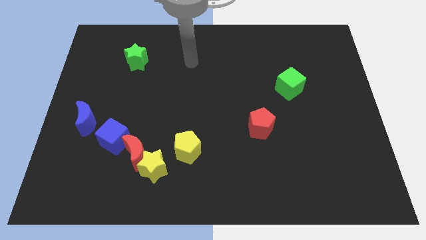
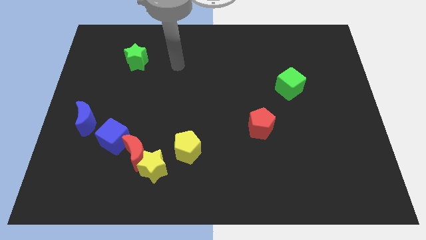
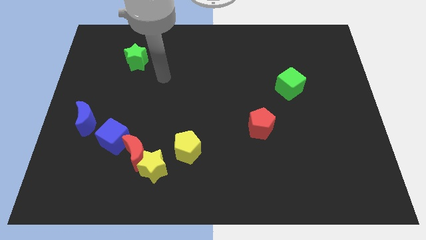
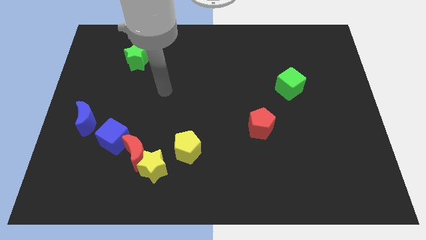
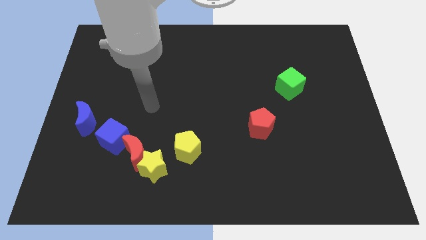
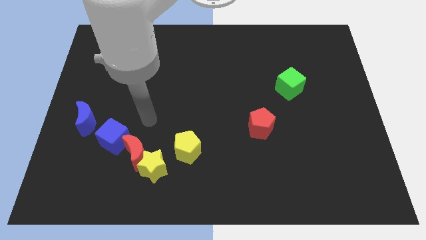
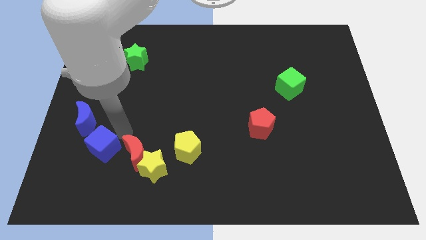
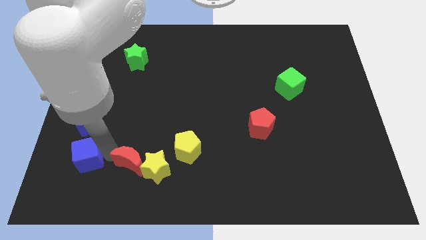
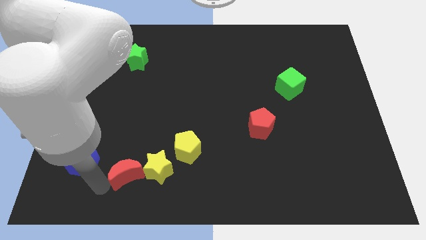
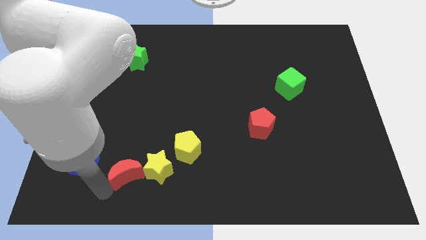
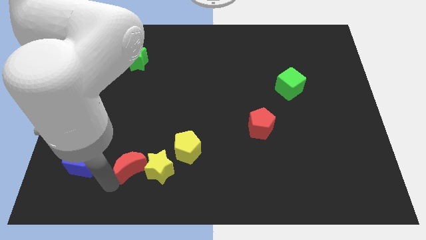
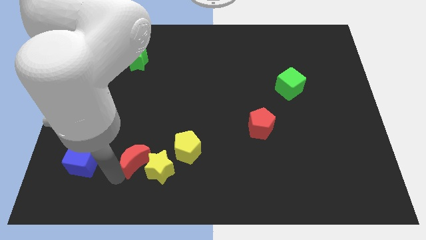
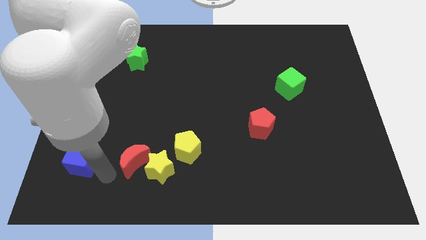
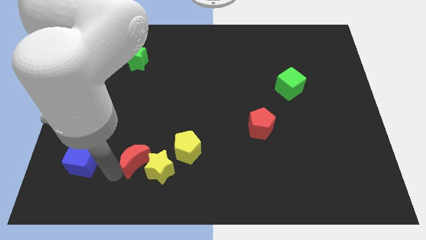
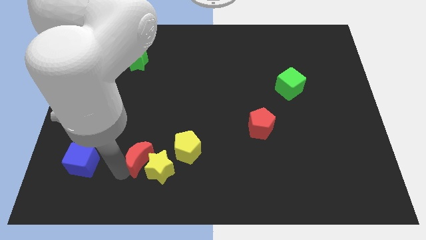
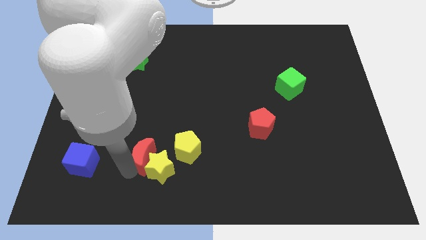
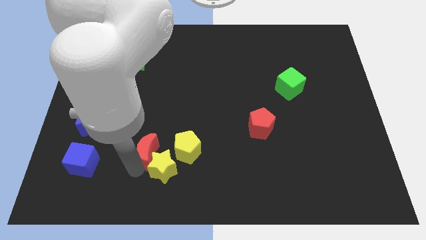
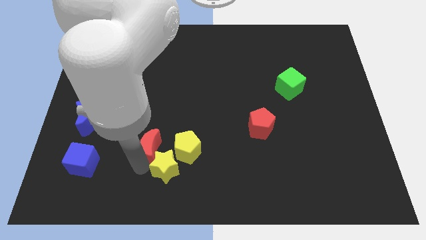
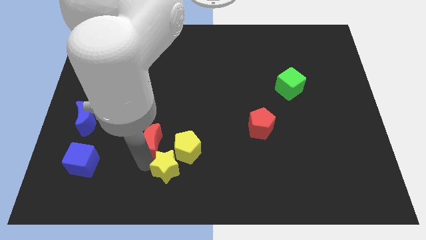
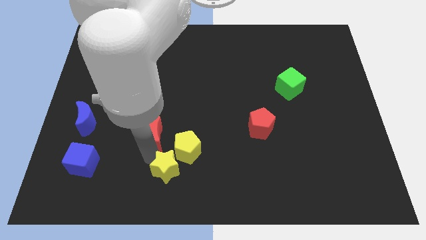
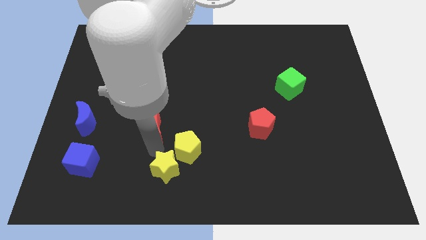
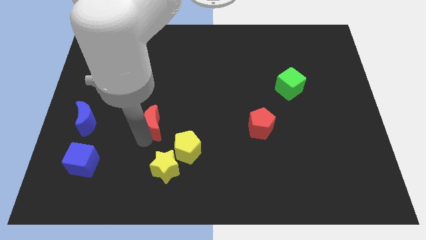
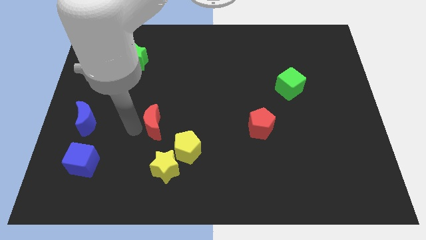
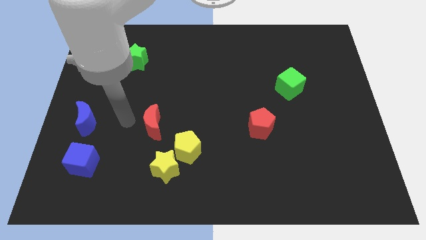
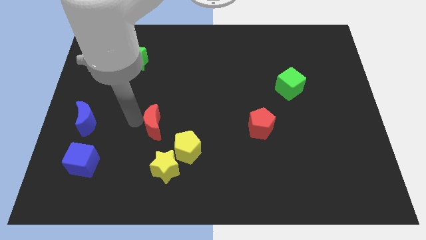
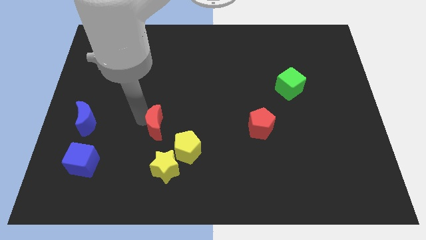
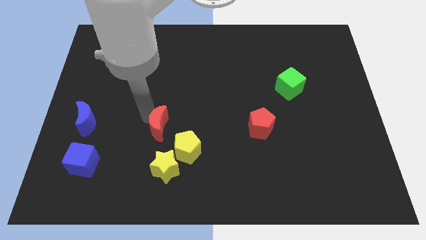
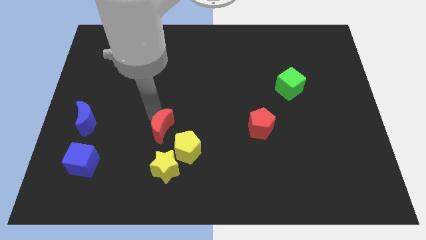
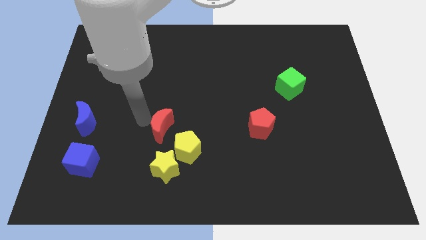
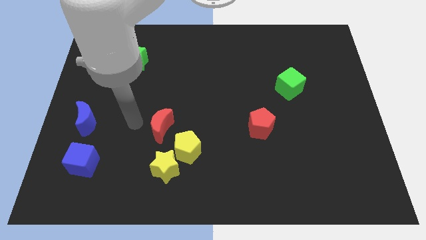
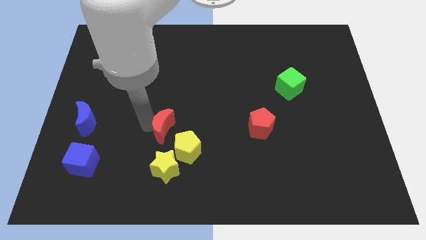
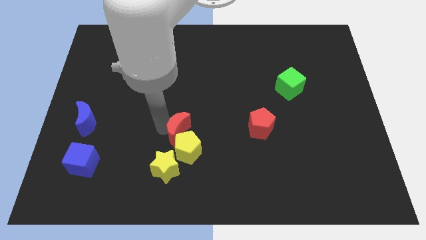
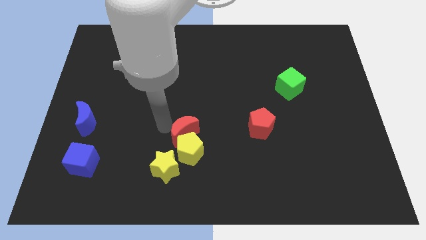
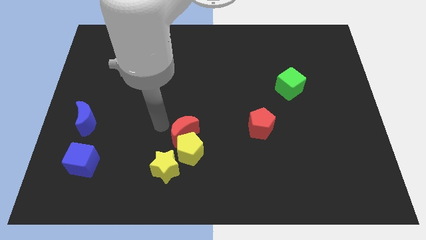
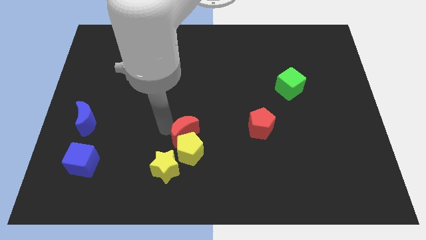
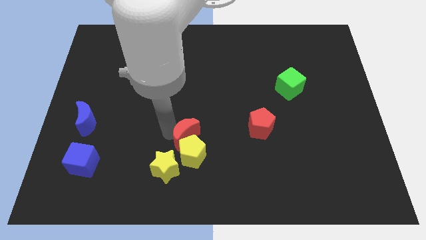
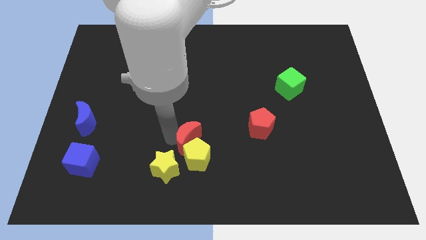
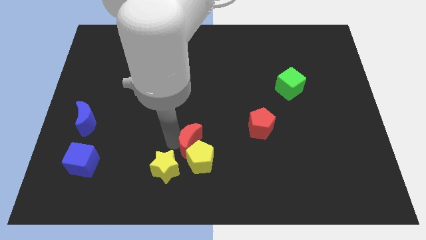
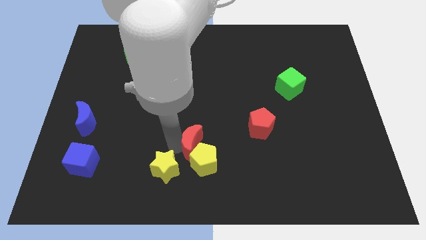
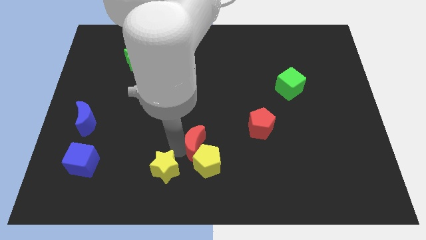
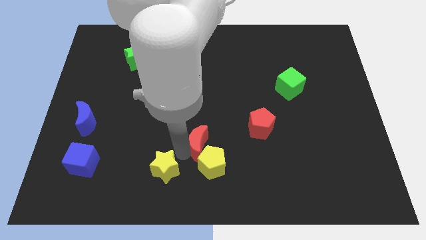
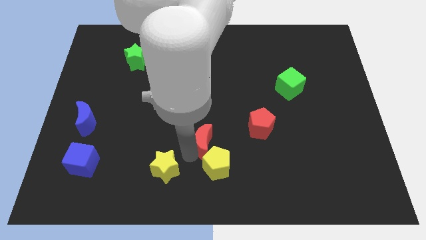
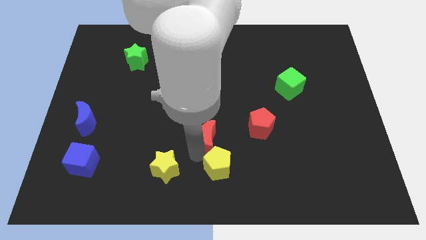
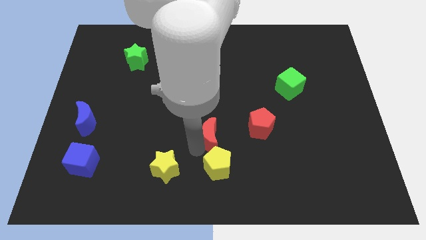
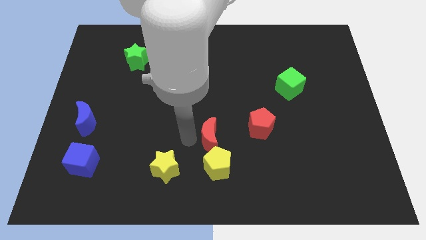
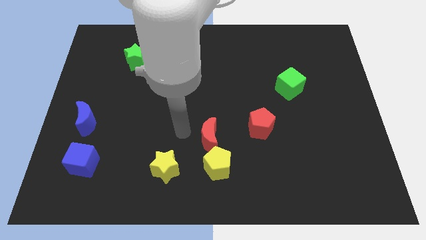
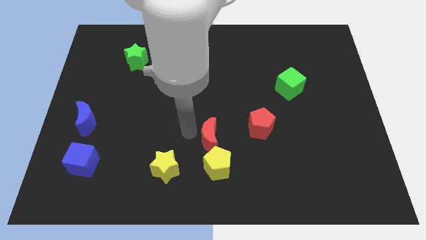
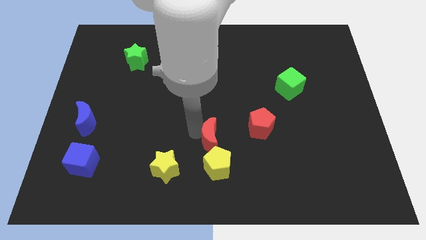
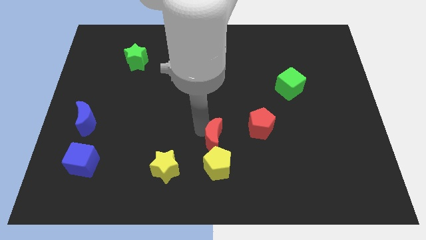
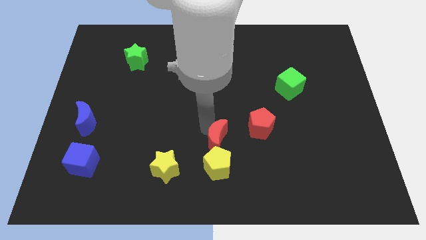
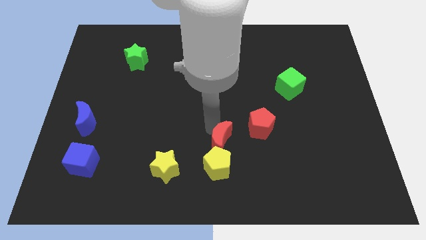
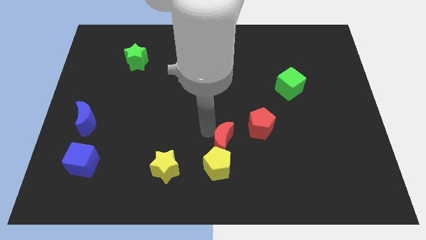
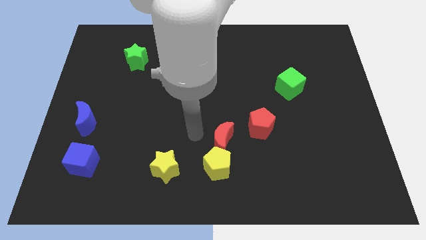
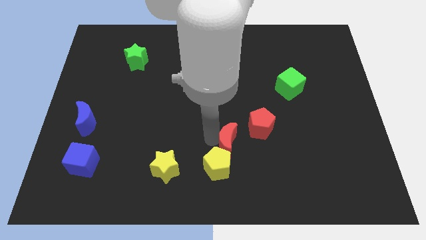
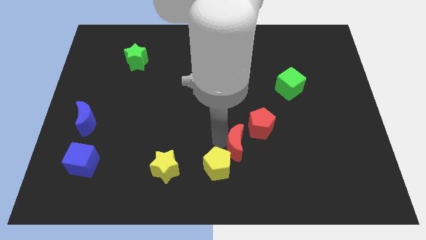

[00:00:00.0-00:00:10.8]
slide the red moon right

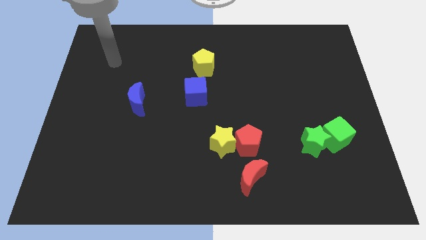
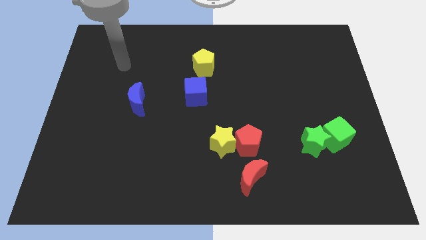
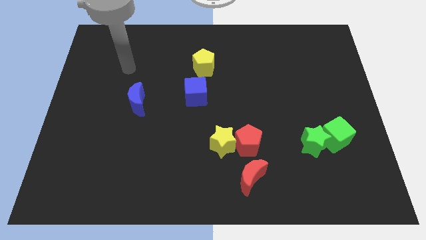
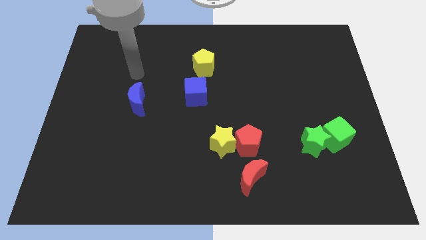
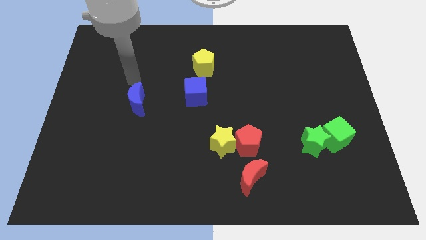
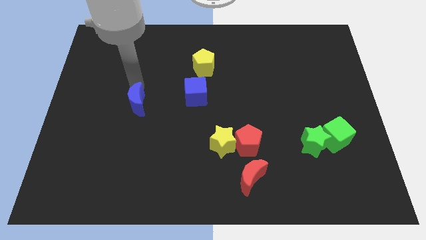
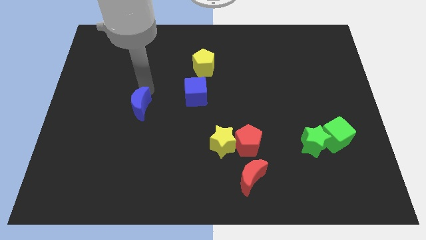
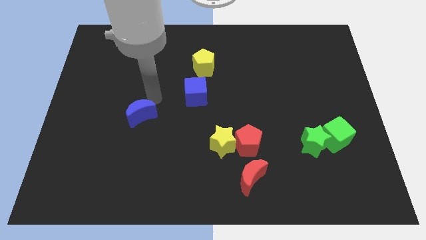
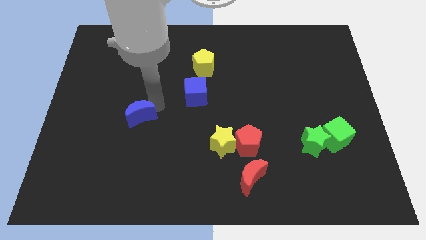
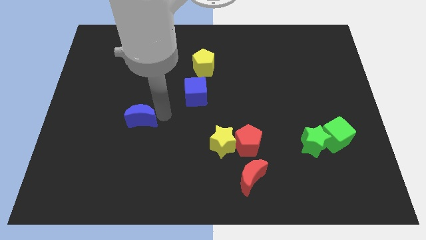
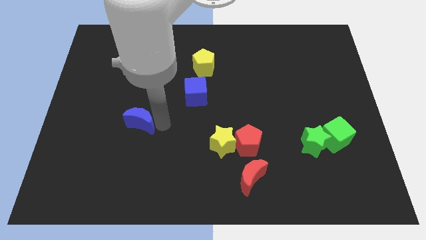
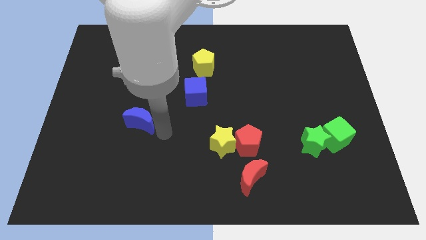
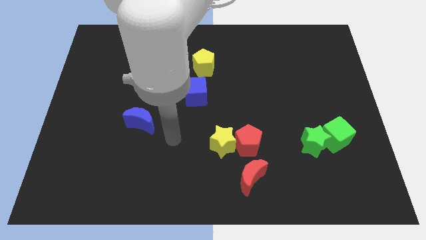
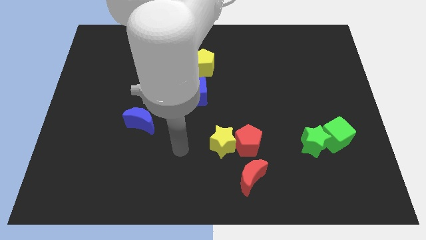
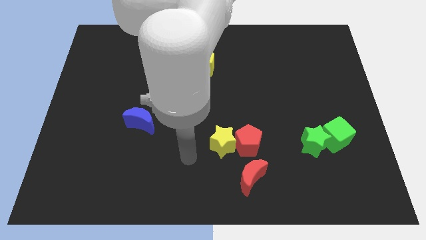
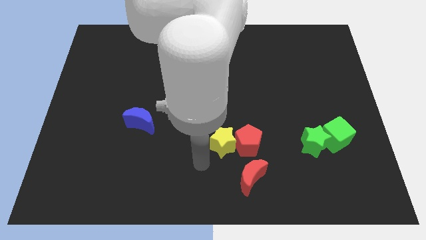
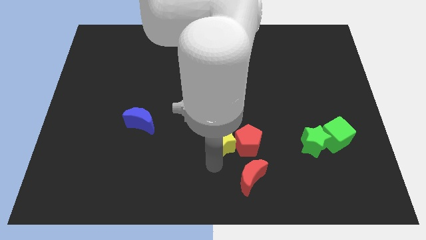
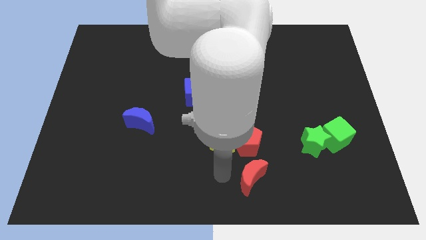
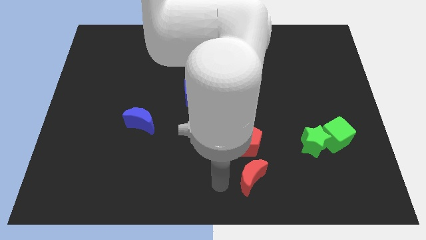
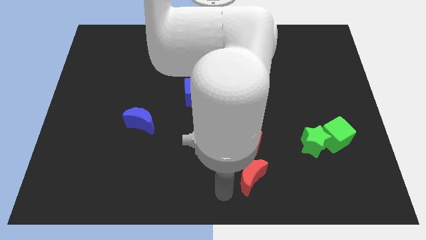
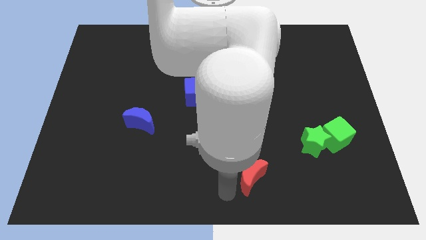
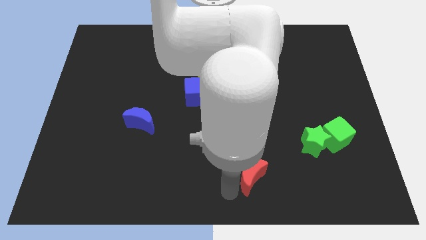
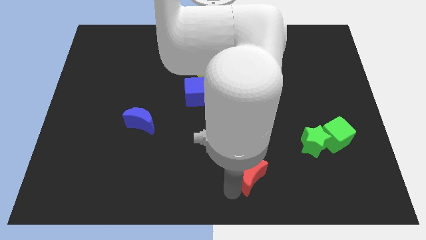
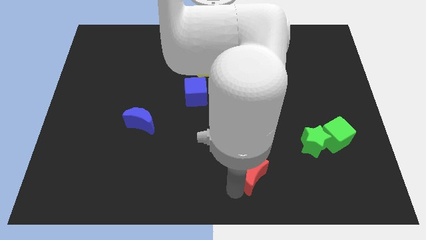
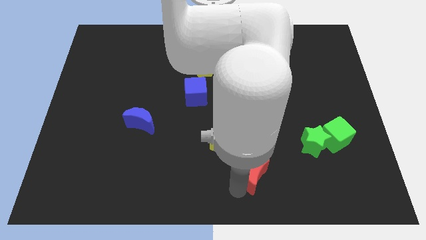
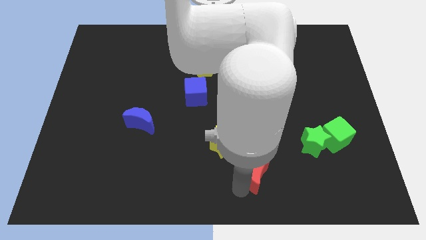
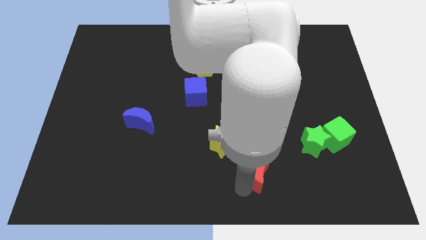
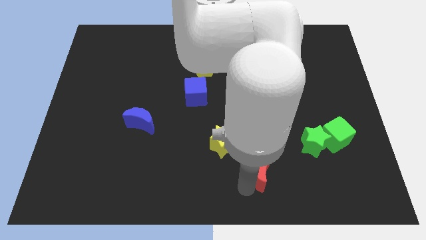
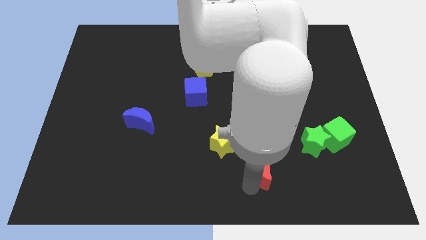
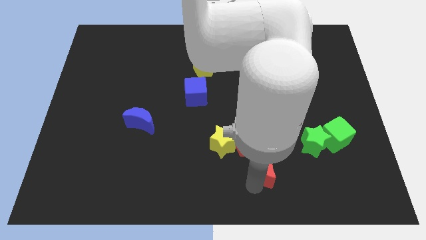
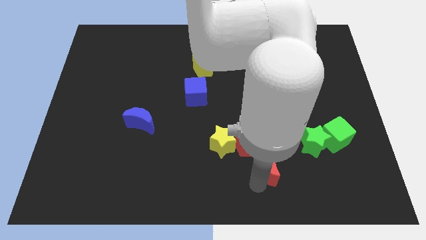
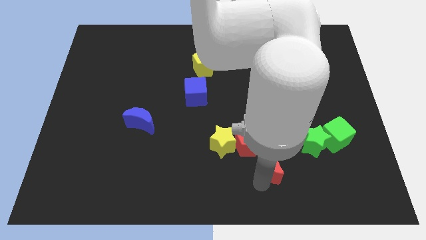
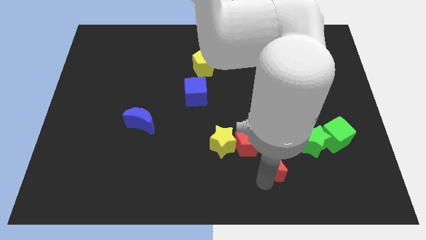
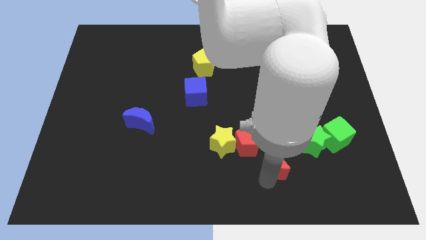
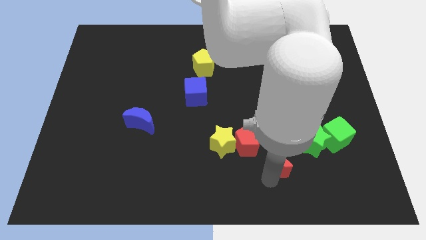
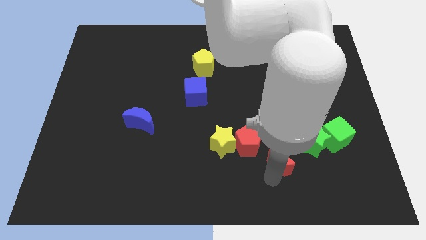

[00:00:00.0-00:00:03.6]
slide the red moon slightly upwards and to the right diagonally
